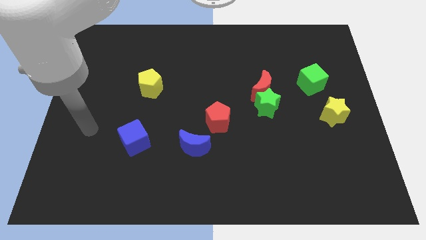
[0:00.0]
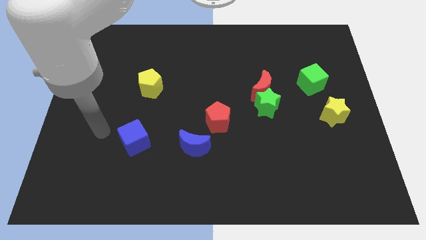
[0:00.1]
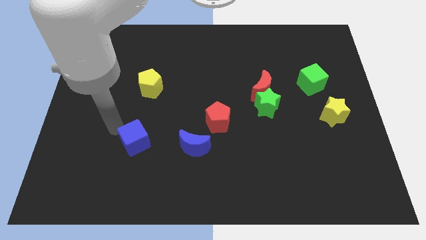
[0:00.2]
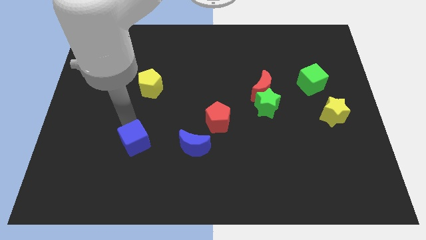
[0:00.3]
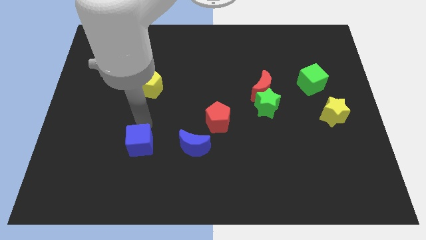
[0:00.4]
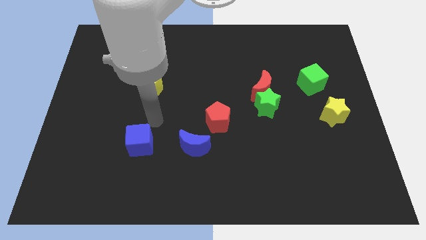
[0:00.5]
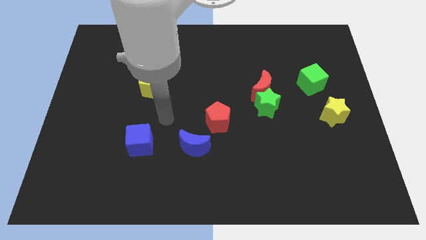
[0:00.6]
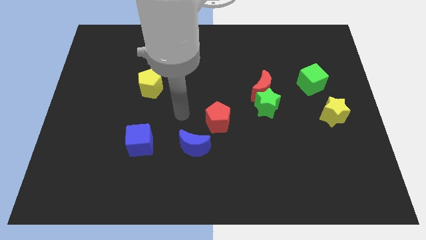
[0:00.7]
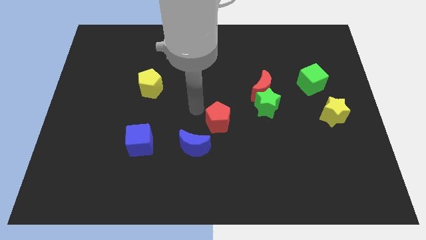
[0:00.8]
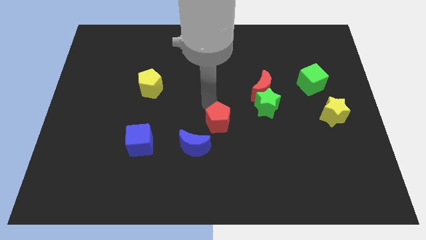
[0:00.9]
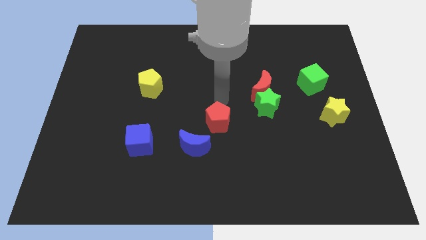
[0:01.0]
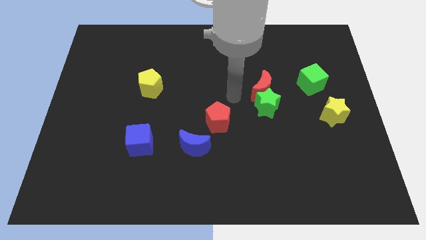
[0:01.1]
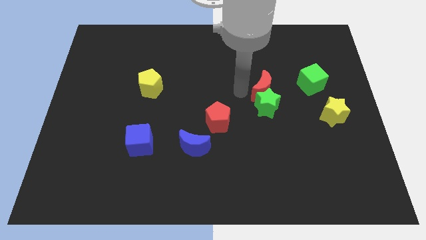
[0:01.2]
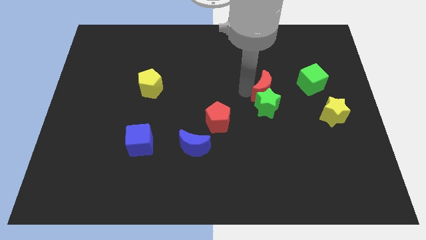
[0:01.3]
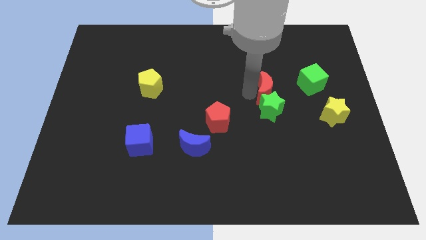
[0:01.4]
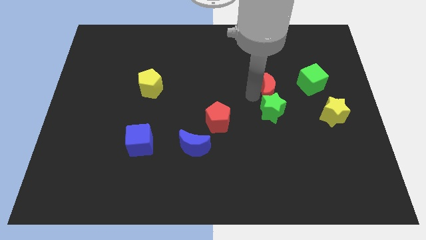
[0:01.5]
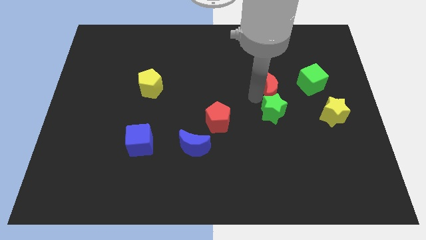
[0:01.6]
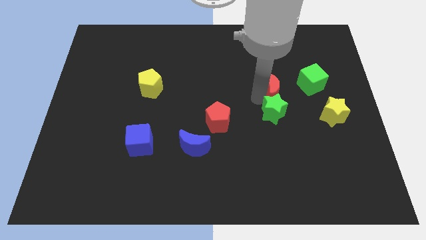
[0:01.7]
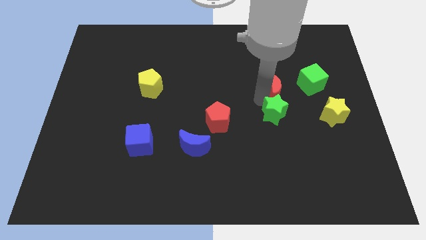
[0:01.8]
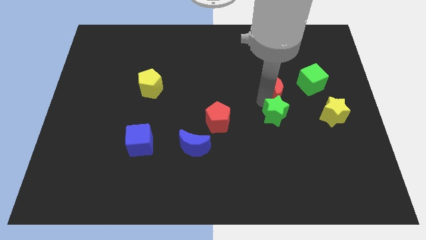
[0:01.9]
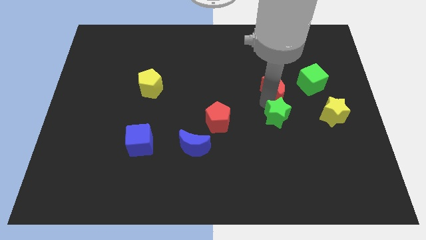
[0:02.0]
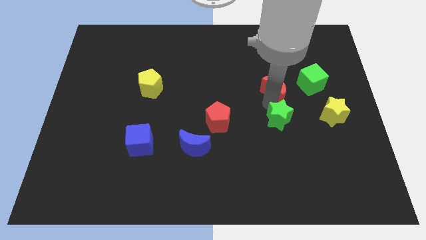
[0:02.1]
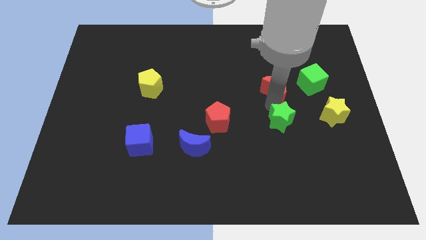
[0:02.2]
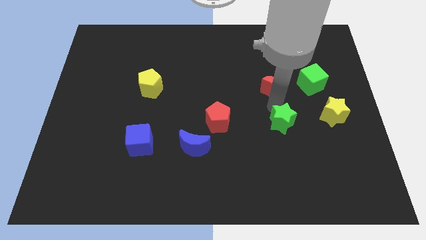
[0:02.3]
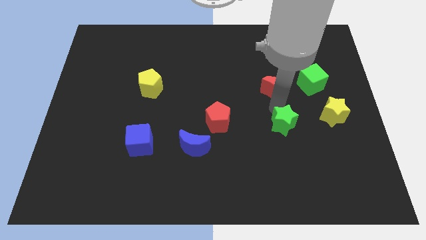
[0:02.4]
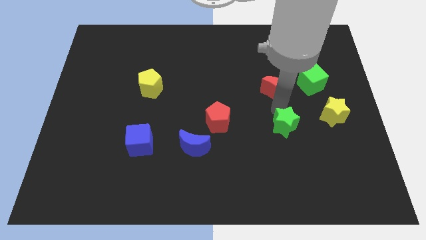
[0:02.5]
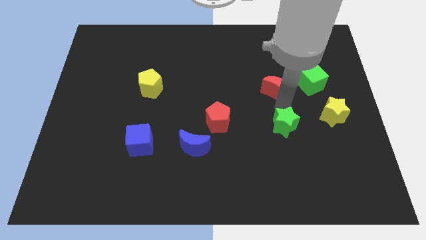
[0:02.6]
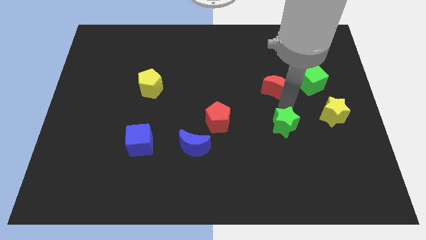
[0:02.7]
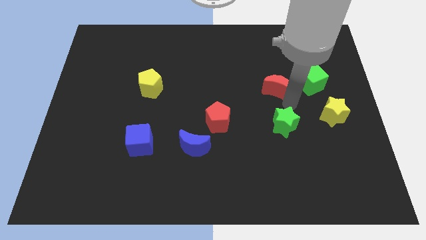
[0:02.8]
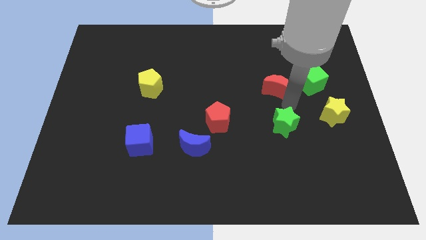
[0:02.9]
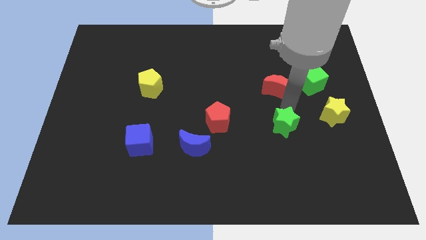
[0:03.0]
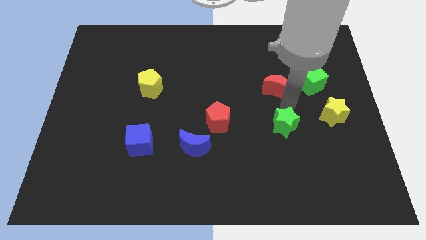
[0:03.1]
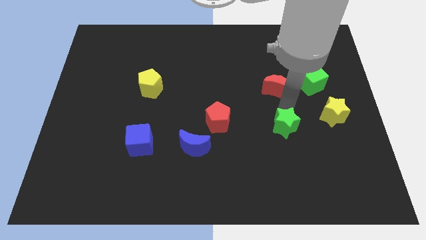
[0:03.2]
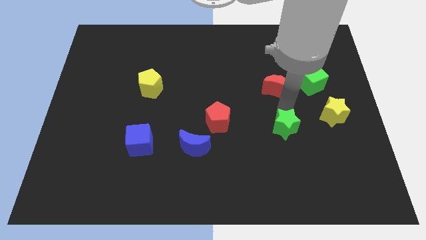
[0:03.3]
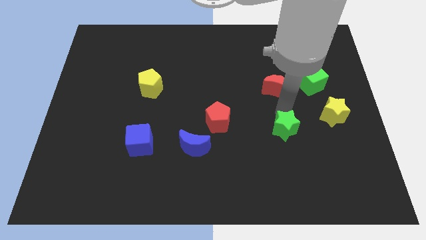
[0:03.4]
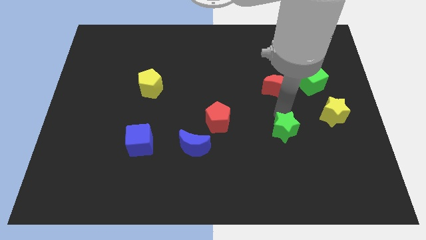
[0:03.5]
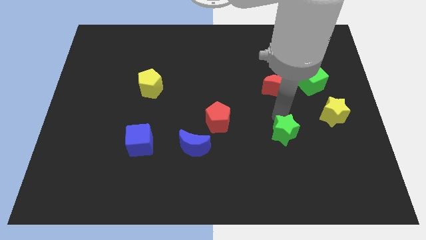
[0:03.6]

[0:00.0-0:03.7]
push the green star a little bit downwards

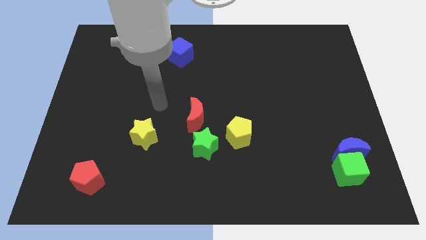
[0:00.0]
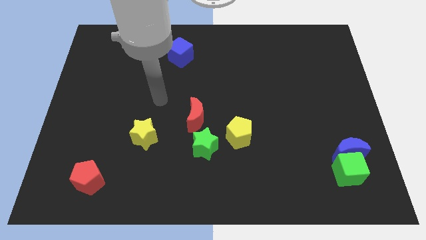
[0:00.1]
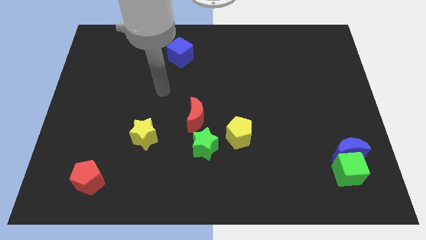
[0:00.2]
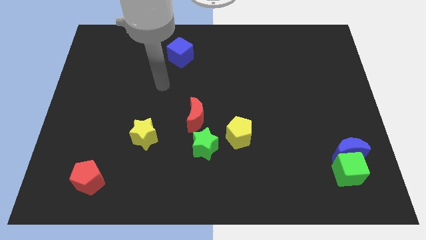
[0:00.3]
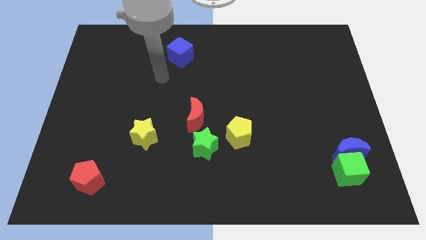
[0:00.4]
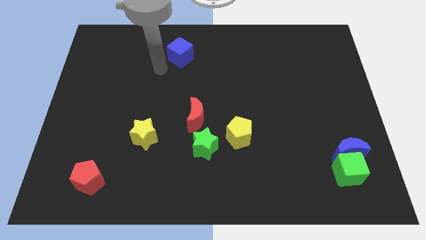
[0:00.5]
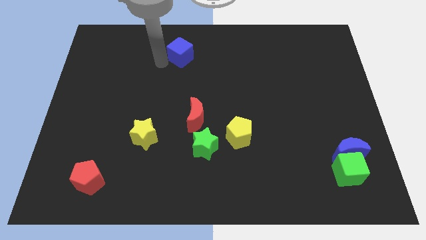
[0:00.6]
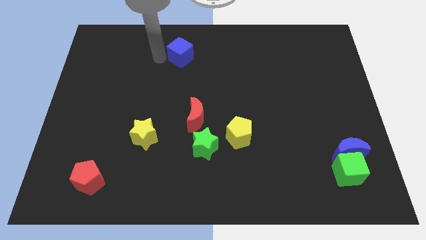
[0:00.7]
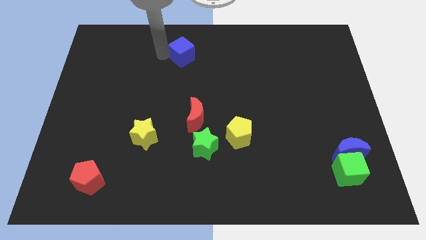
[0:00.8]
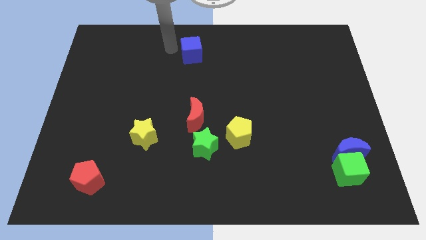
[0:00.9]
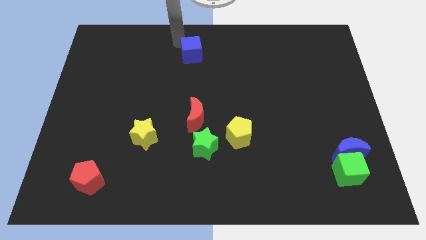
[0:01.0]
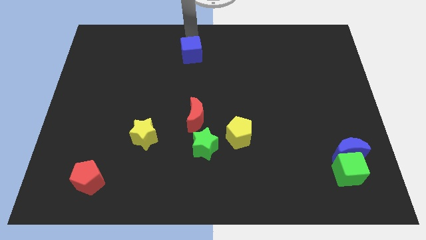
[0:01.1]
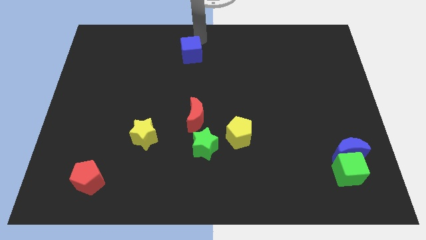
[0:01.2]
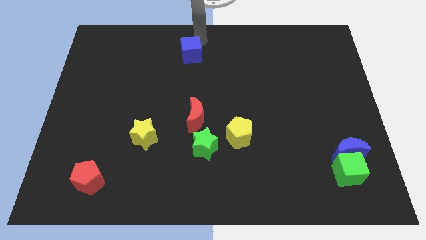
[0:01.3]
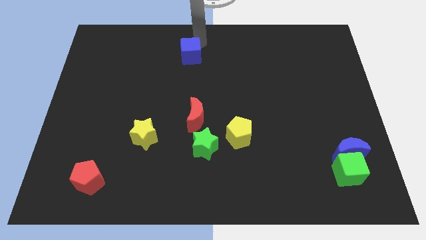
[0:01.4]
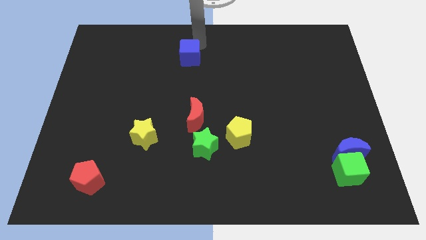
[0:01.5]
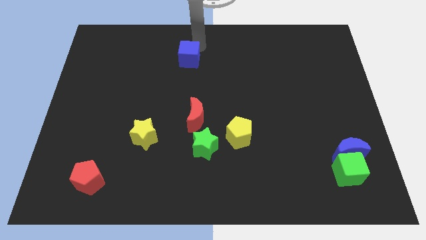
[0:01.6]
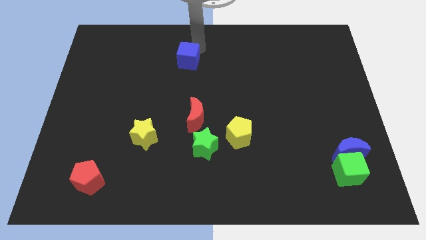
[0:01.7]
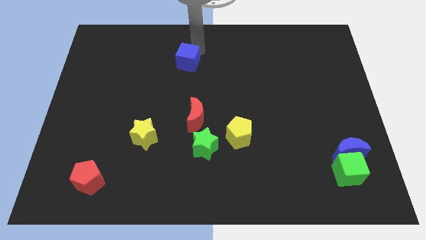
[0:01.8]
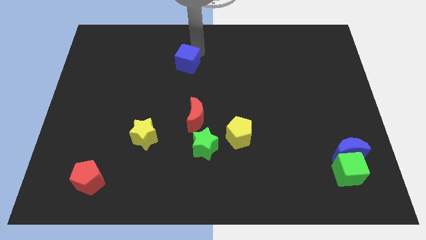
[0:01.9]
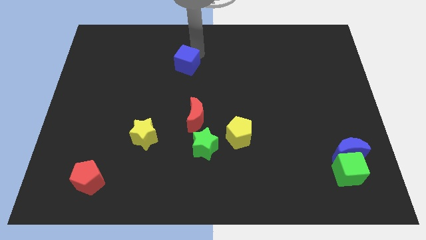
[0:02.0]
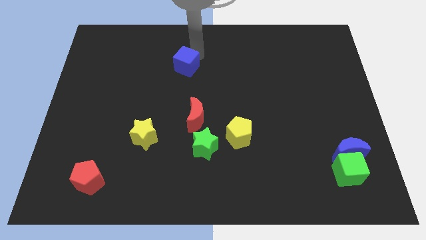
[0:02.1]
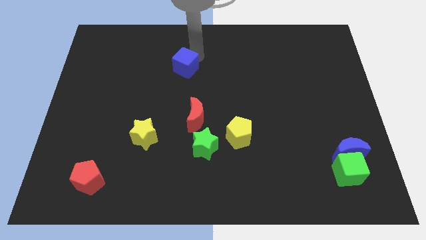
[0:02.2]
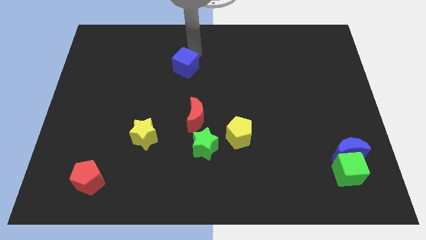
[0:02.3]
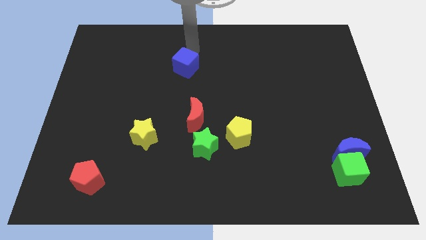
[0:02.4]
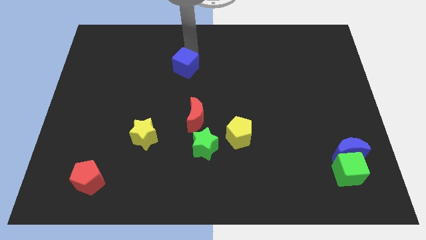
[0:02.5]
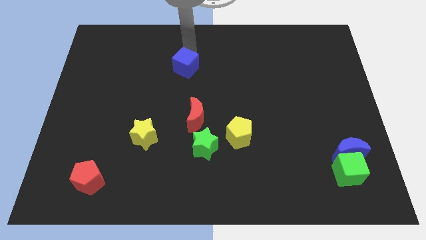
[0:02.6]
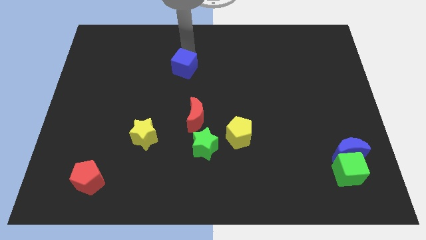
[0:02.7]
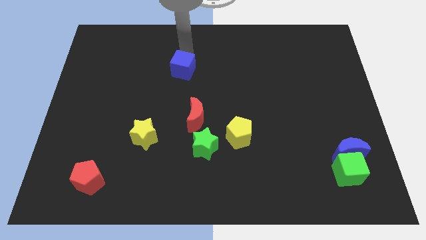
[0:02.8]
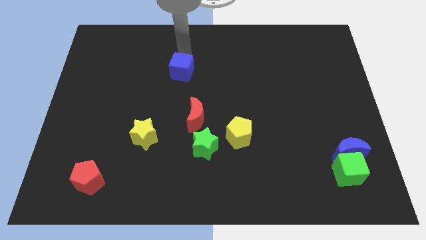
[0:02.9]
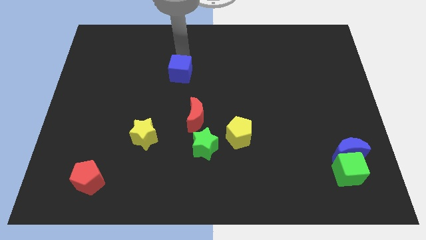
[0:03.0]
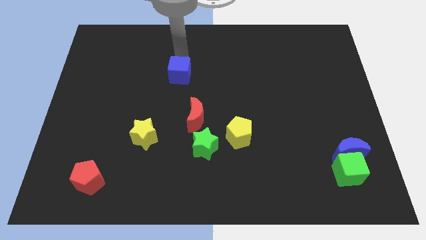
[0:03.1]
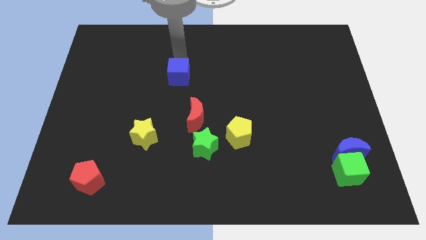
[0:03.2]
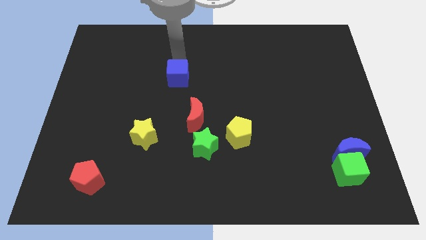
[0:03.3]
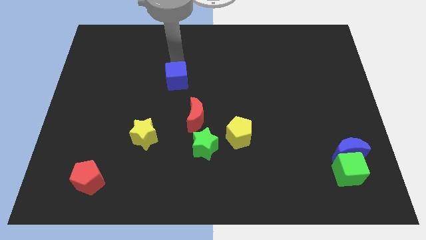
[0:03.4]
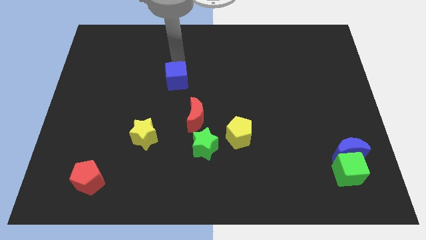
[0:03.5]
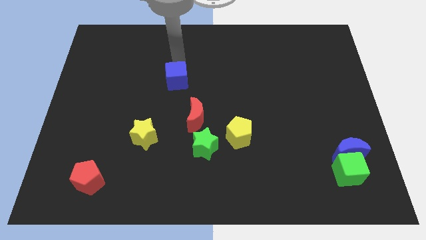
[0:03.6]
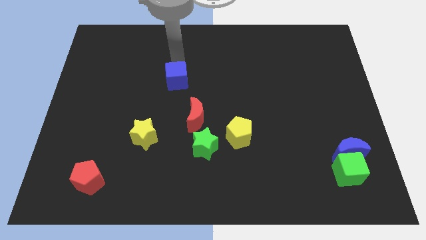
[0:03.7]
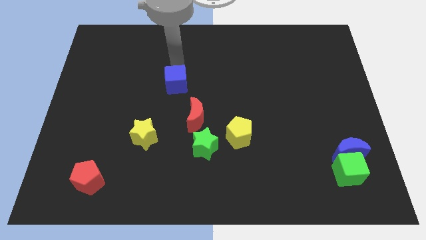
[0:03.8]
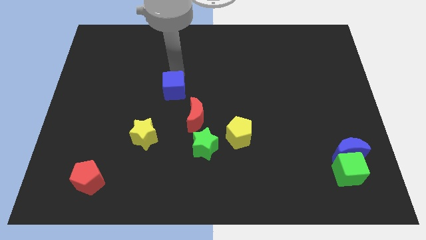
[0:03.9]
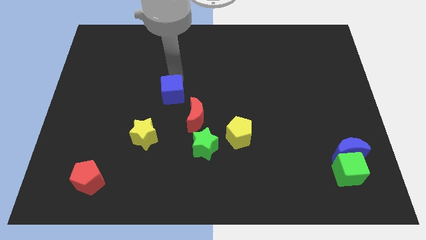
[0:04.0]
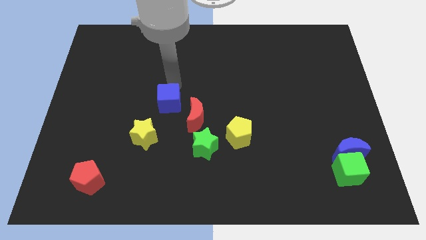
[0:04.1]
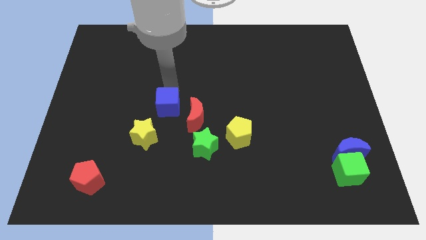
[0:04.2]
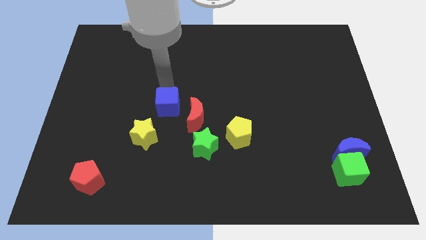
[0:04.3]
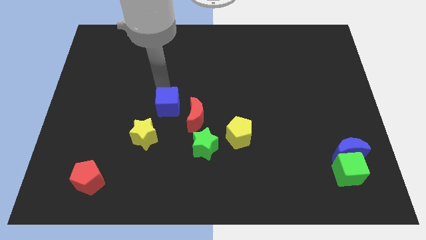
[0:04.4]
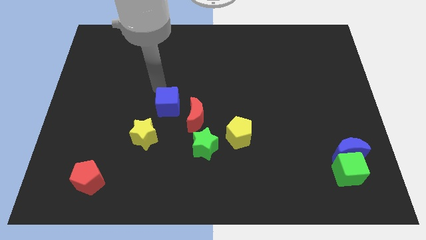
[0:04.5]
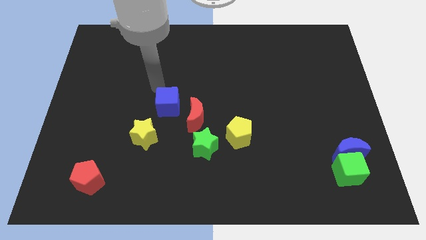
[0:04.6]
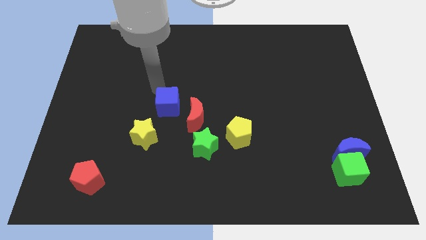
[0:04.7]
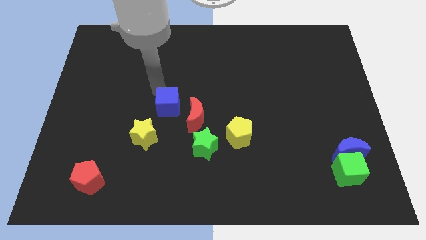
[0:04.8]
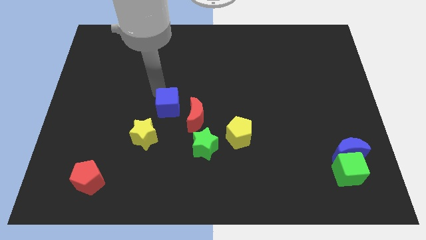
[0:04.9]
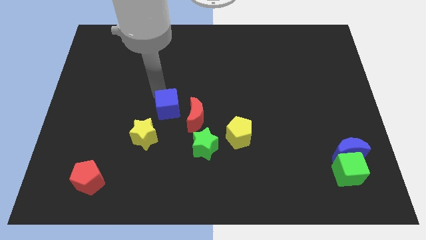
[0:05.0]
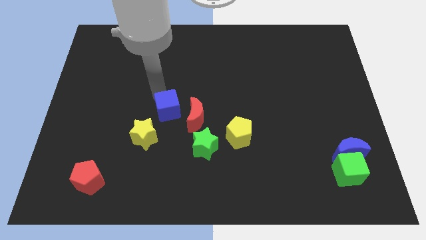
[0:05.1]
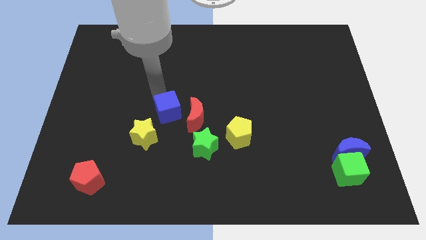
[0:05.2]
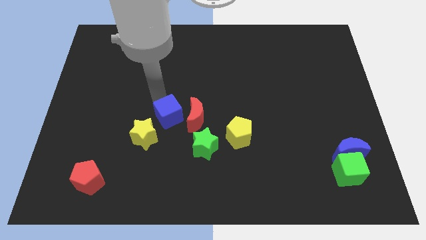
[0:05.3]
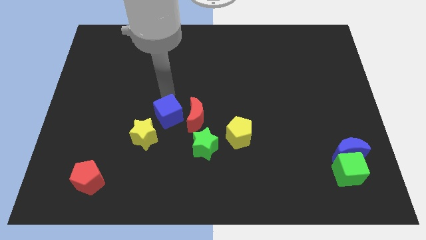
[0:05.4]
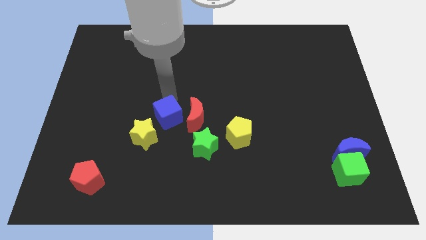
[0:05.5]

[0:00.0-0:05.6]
move the blue cube down
